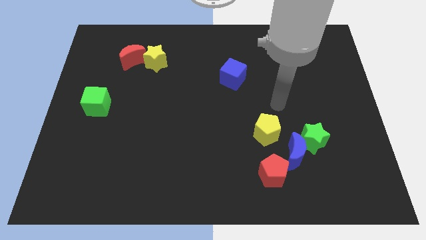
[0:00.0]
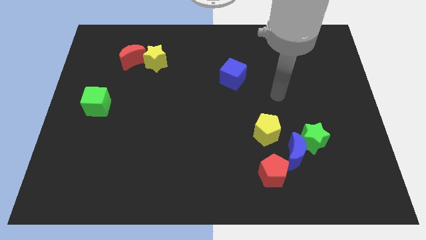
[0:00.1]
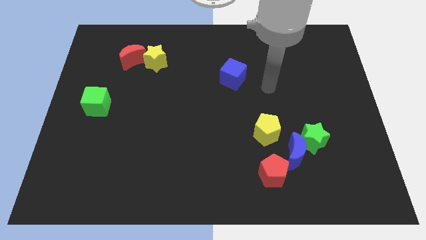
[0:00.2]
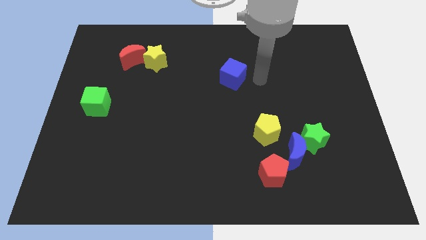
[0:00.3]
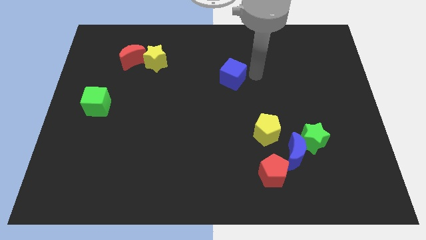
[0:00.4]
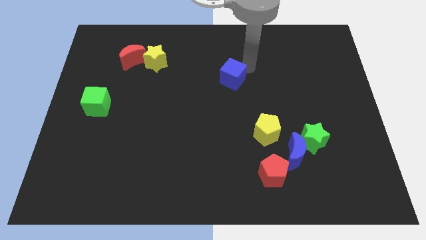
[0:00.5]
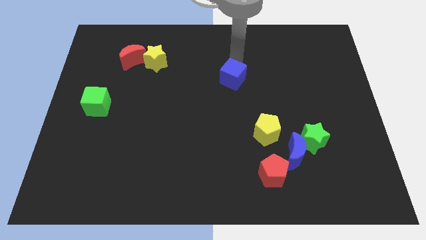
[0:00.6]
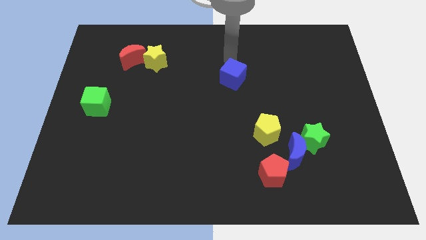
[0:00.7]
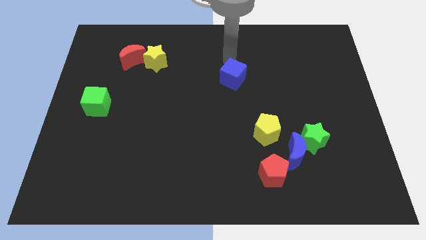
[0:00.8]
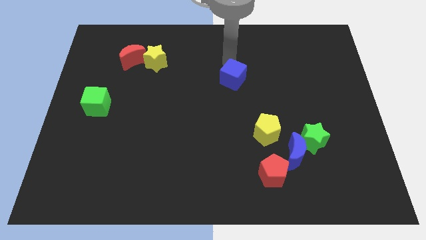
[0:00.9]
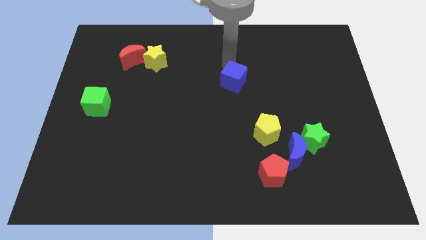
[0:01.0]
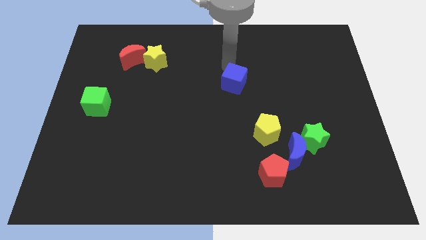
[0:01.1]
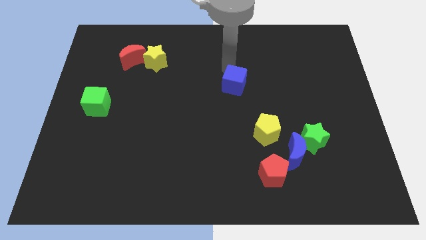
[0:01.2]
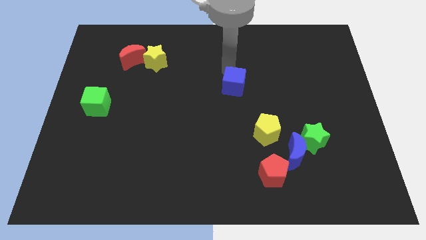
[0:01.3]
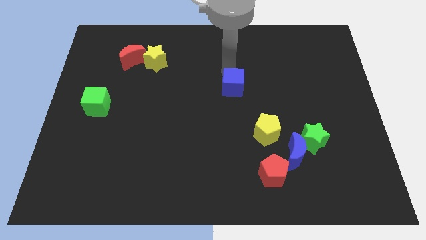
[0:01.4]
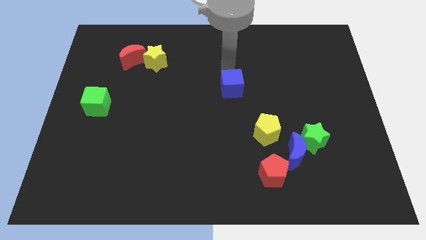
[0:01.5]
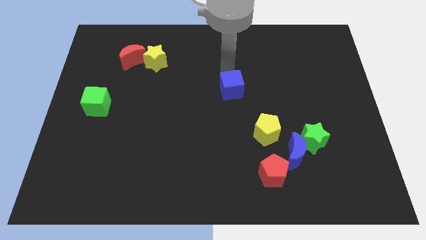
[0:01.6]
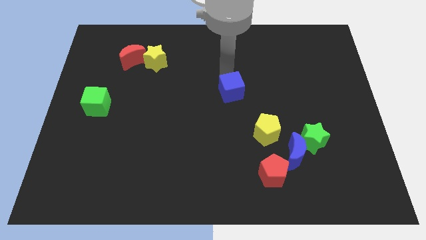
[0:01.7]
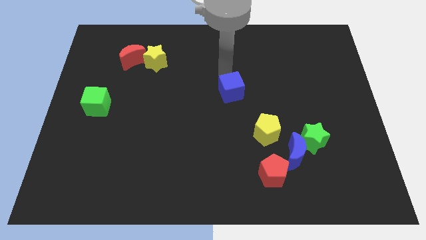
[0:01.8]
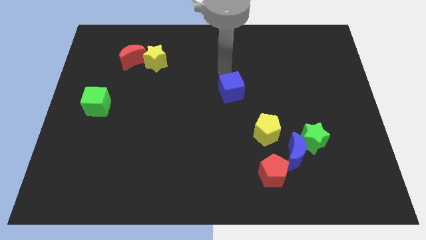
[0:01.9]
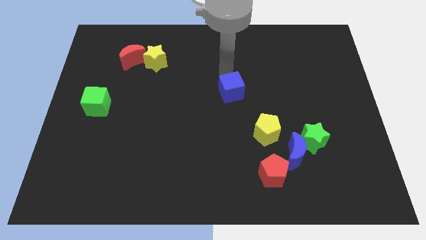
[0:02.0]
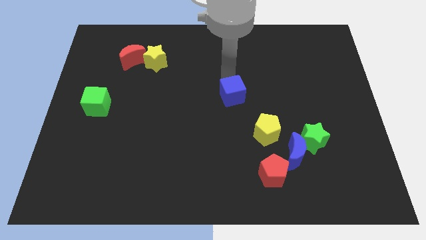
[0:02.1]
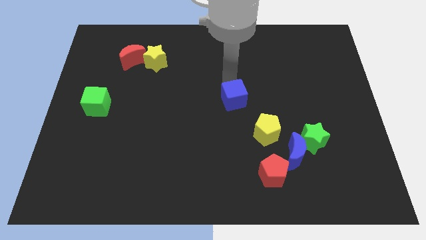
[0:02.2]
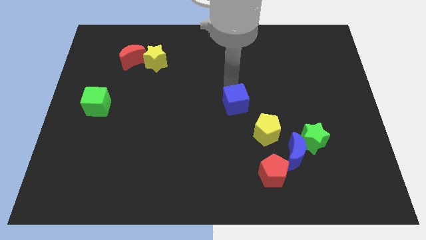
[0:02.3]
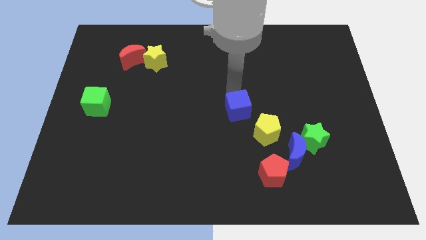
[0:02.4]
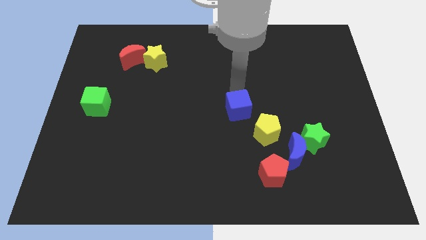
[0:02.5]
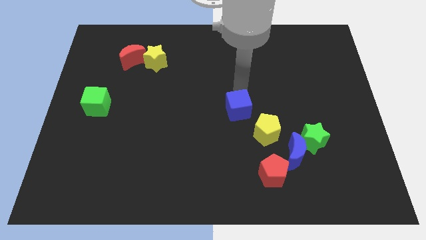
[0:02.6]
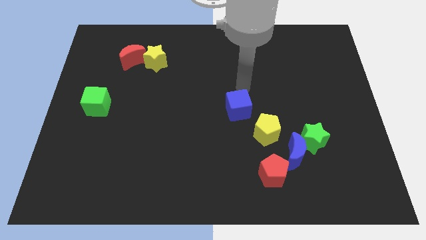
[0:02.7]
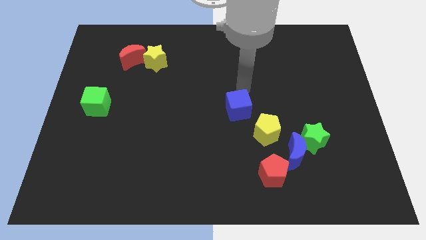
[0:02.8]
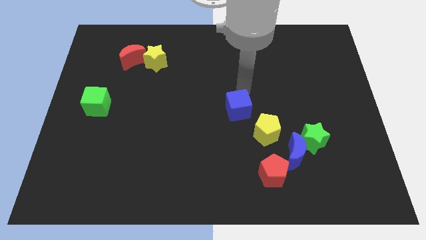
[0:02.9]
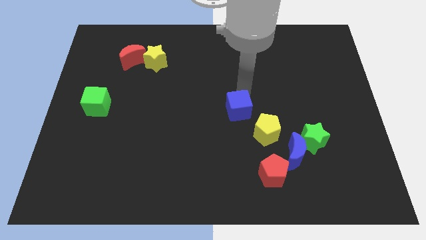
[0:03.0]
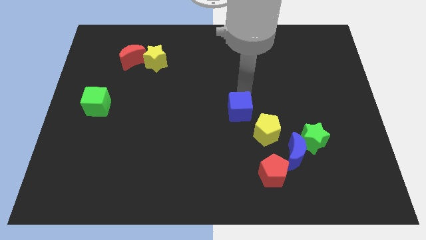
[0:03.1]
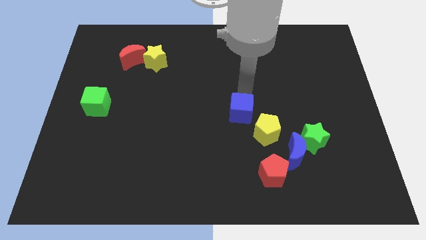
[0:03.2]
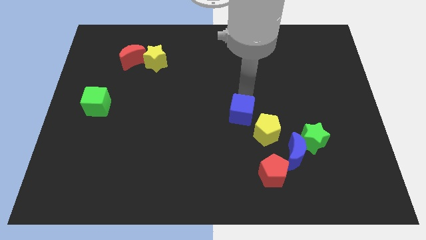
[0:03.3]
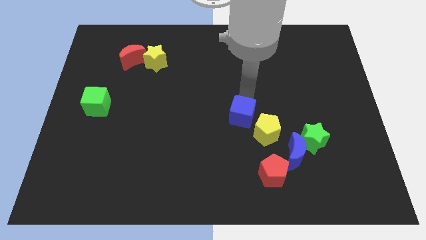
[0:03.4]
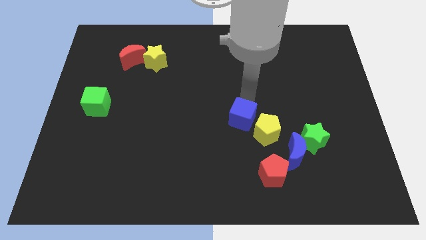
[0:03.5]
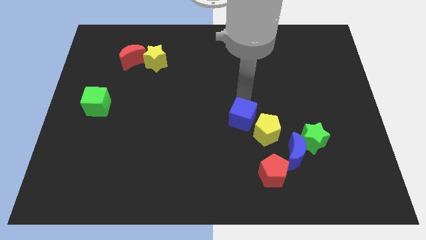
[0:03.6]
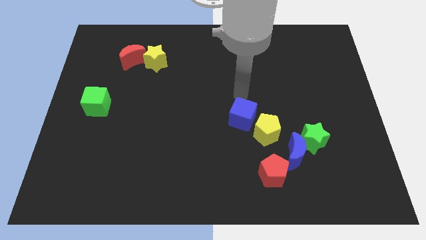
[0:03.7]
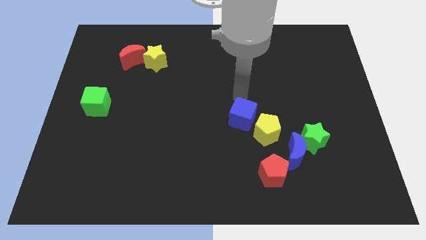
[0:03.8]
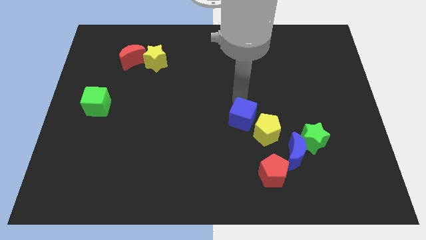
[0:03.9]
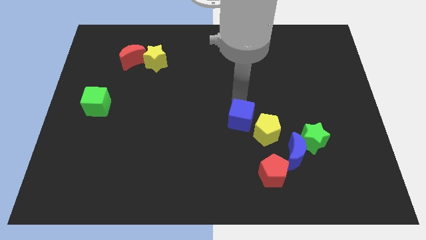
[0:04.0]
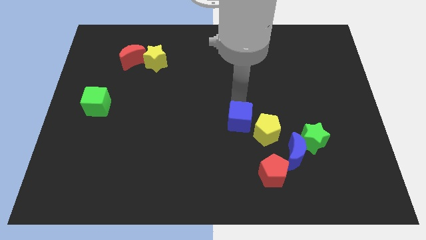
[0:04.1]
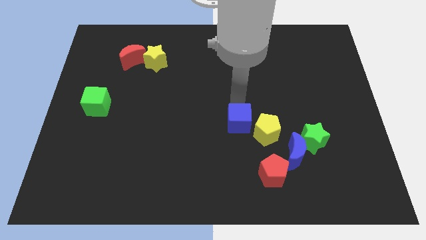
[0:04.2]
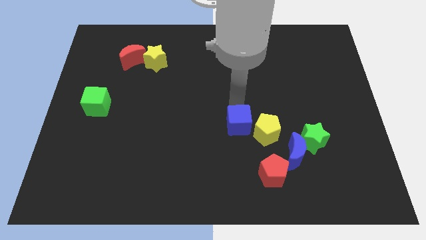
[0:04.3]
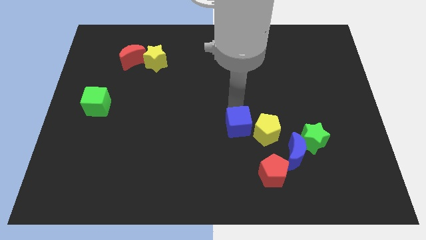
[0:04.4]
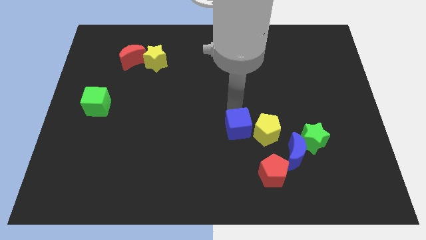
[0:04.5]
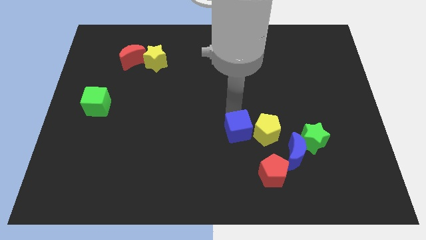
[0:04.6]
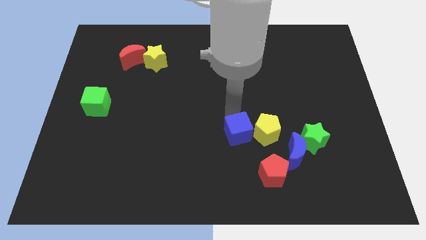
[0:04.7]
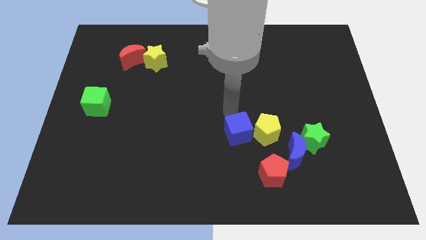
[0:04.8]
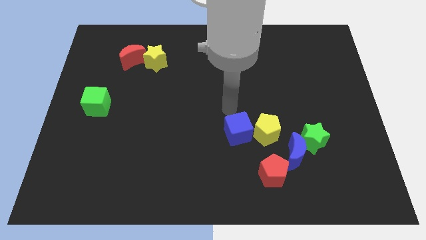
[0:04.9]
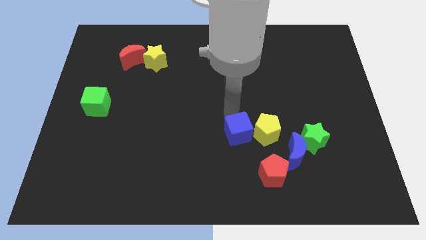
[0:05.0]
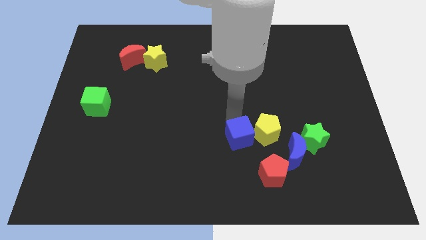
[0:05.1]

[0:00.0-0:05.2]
push the blue cube to the left of the blue moon

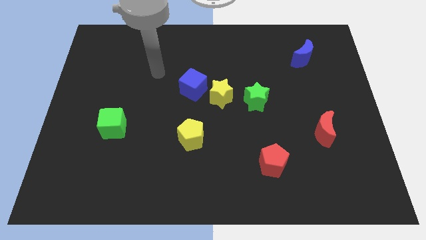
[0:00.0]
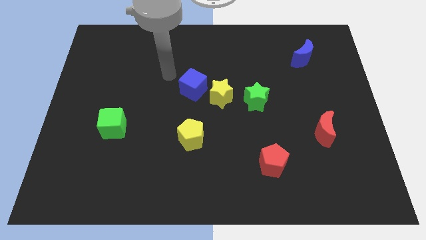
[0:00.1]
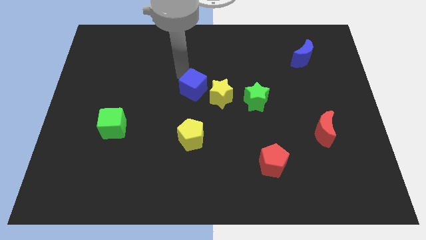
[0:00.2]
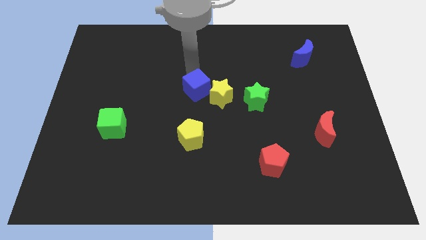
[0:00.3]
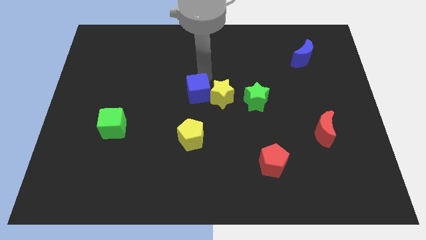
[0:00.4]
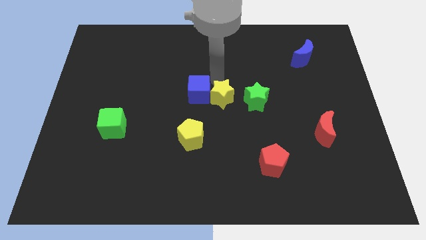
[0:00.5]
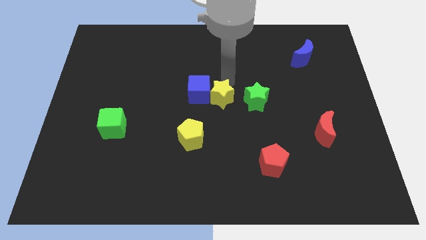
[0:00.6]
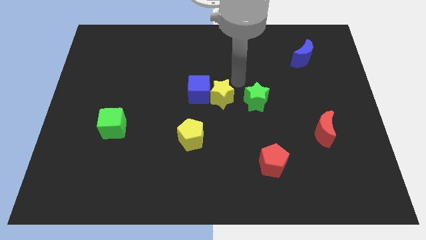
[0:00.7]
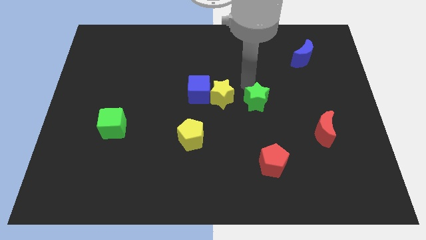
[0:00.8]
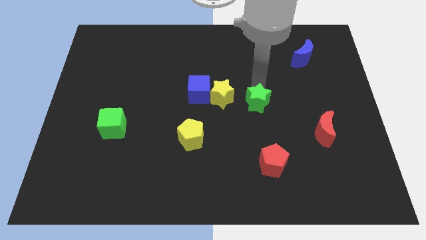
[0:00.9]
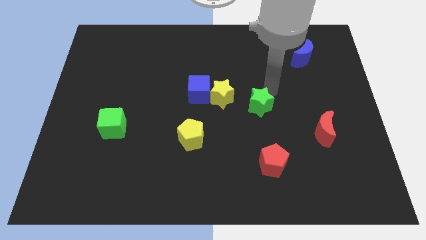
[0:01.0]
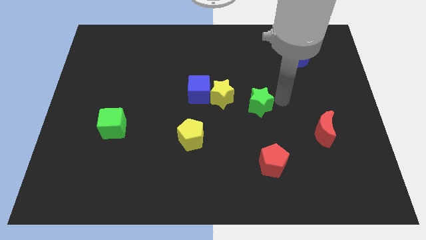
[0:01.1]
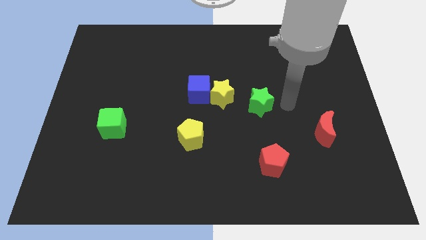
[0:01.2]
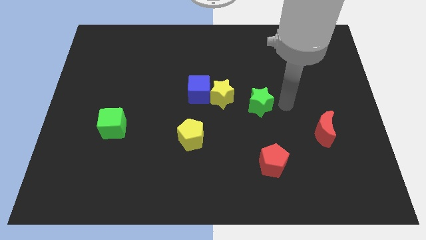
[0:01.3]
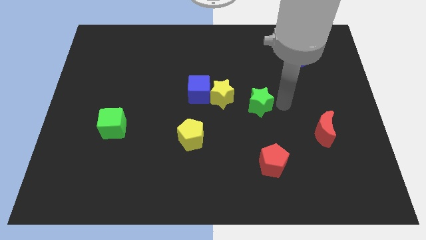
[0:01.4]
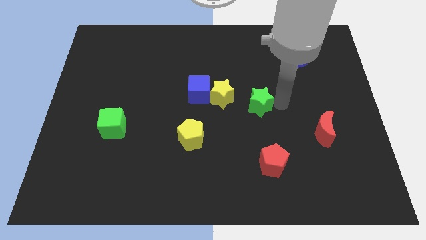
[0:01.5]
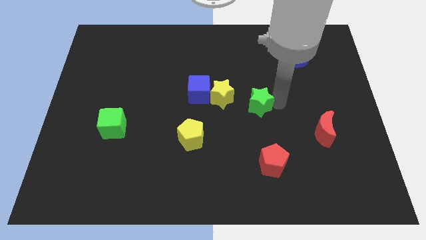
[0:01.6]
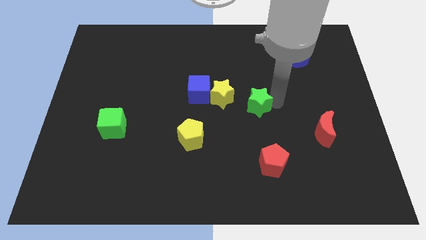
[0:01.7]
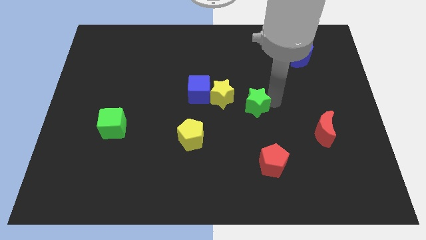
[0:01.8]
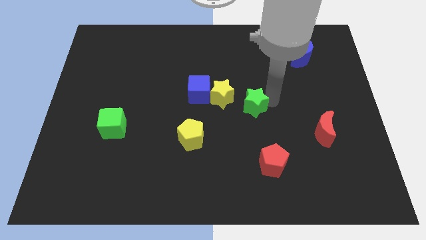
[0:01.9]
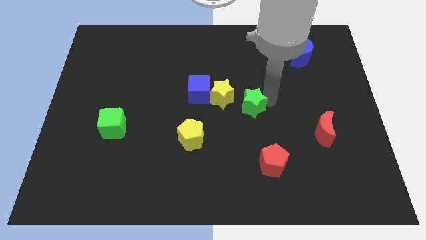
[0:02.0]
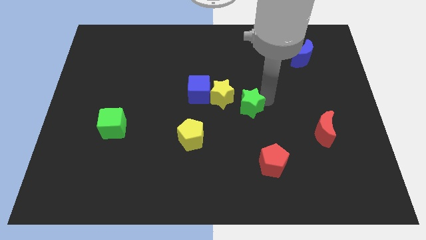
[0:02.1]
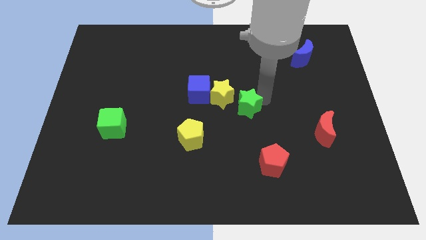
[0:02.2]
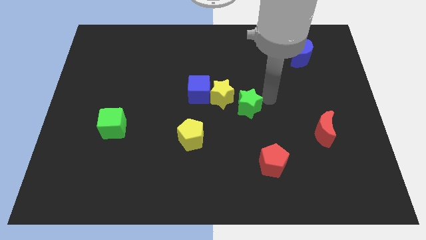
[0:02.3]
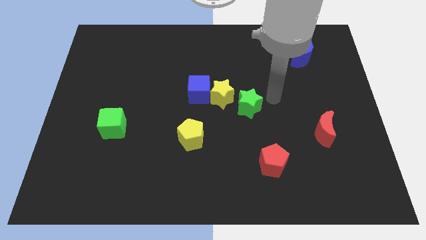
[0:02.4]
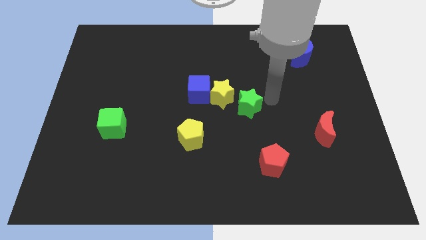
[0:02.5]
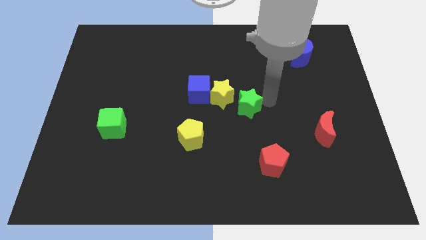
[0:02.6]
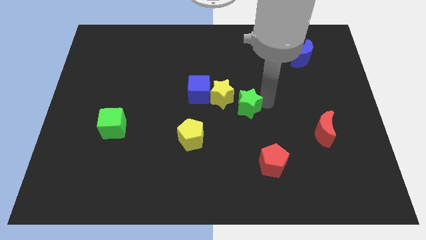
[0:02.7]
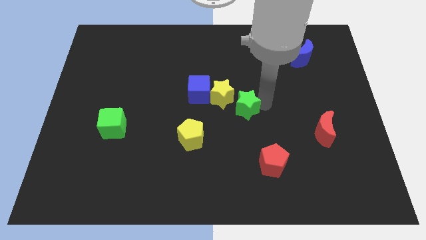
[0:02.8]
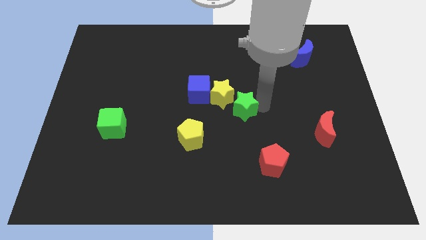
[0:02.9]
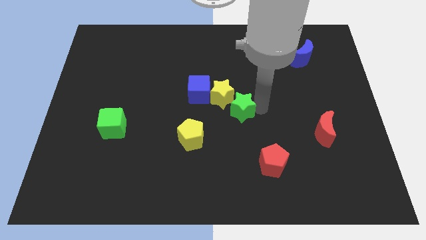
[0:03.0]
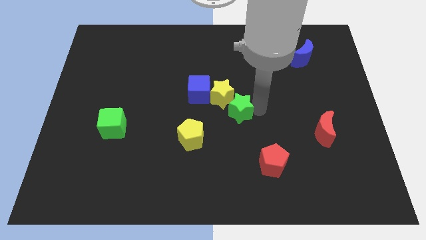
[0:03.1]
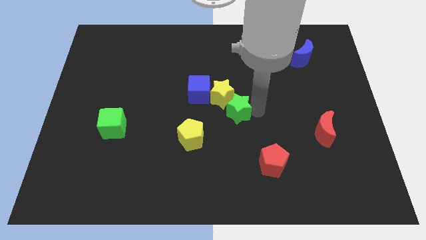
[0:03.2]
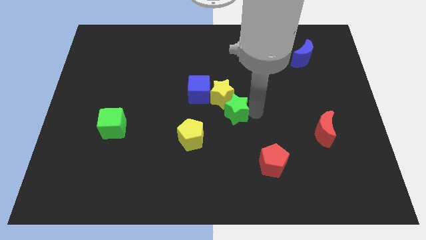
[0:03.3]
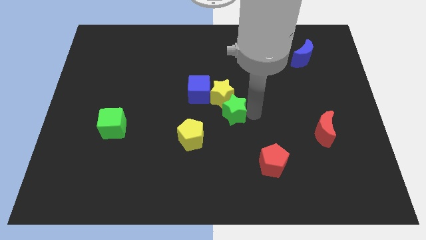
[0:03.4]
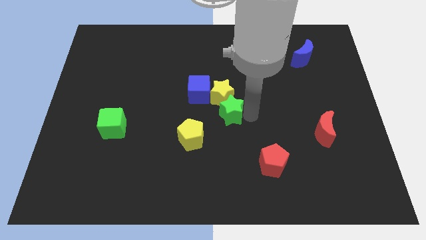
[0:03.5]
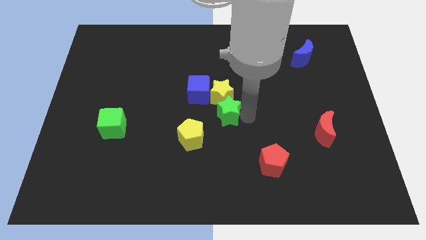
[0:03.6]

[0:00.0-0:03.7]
move the green star diagonally down and to the left of the yellow star
